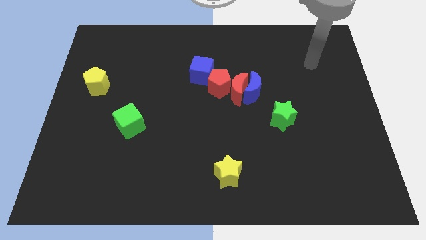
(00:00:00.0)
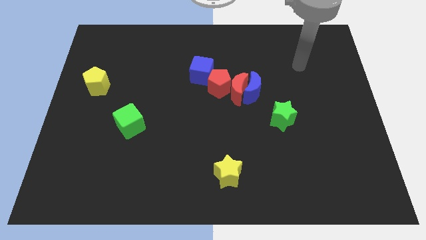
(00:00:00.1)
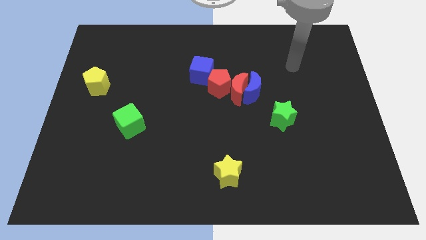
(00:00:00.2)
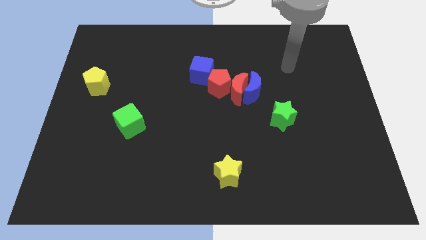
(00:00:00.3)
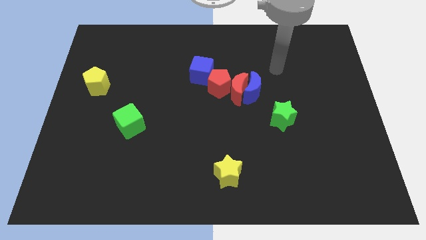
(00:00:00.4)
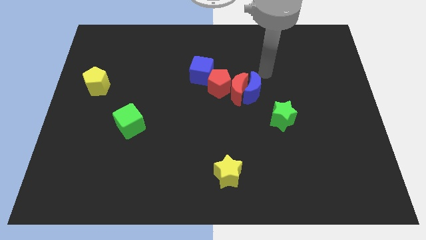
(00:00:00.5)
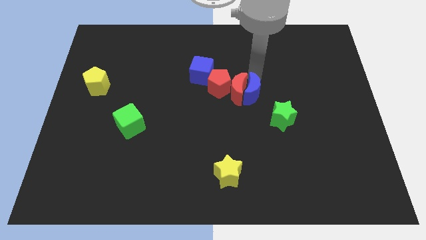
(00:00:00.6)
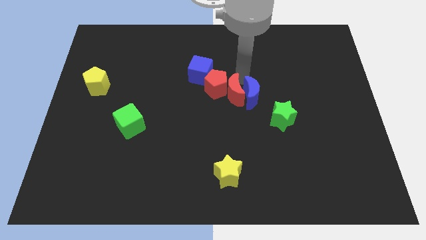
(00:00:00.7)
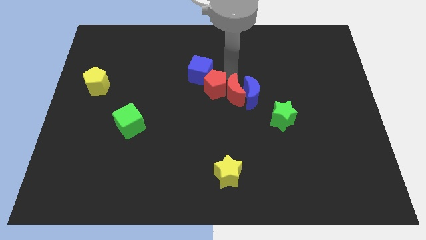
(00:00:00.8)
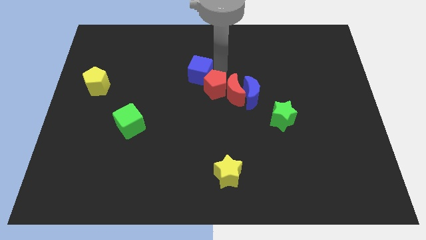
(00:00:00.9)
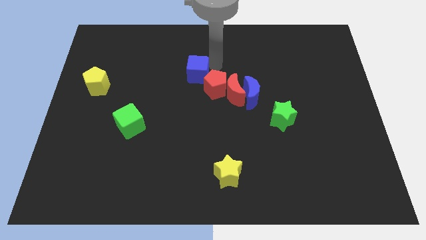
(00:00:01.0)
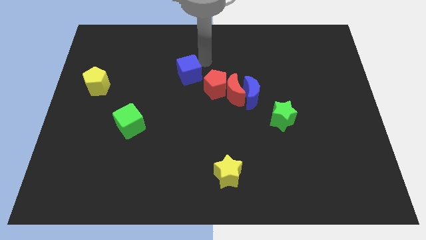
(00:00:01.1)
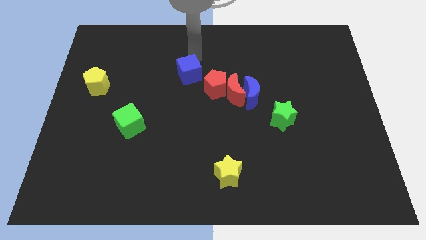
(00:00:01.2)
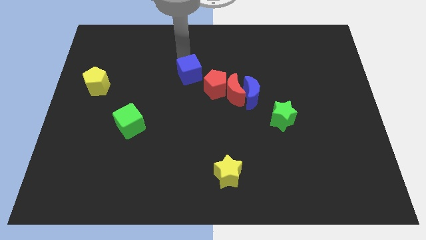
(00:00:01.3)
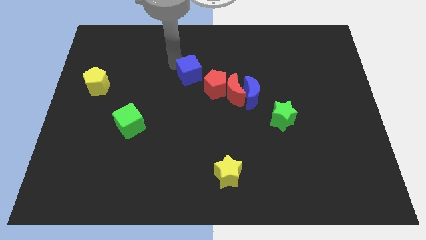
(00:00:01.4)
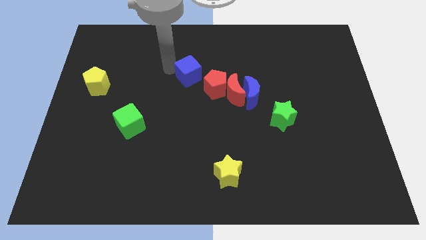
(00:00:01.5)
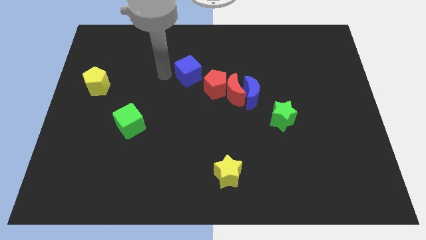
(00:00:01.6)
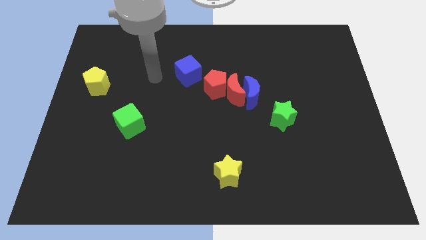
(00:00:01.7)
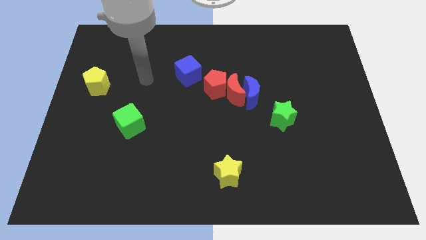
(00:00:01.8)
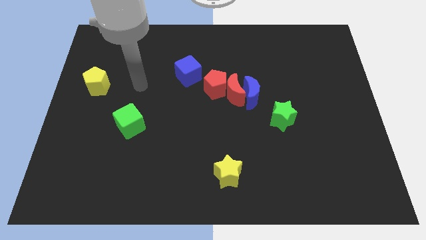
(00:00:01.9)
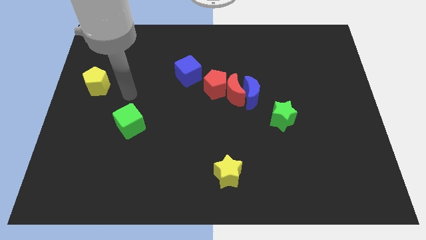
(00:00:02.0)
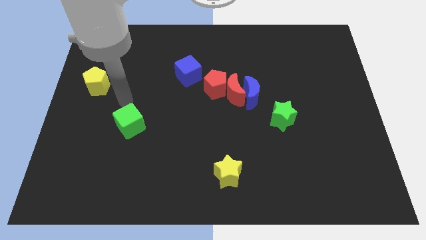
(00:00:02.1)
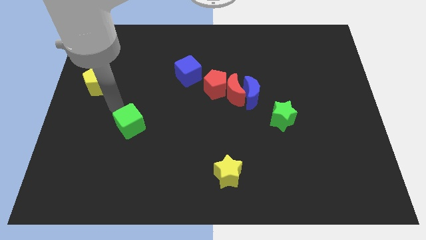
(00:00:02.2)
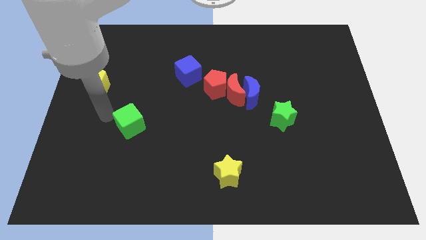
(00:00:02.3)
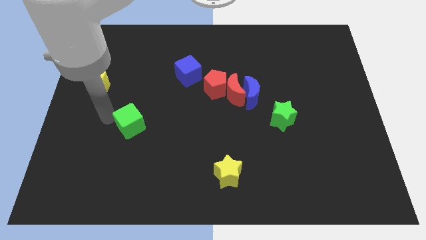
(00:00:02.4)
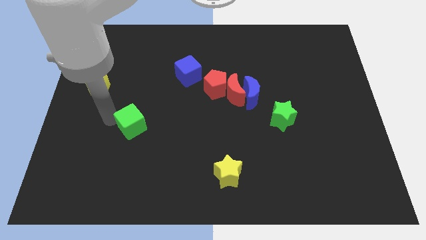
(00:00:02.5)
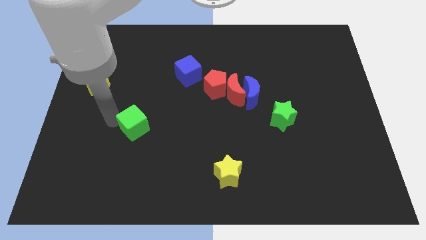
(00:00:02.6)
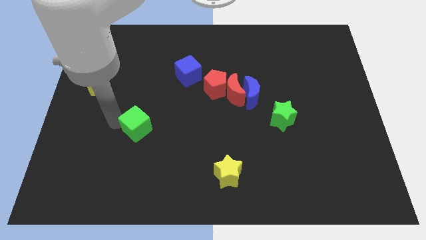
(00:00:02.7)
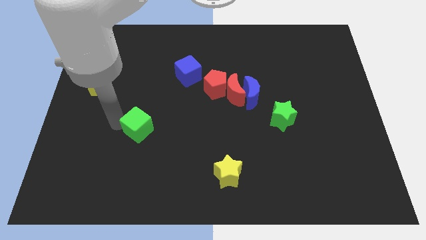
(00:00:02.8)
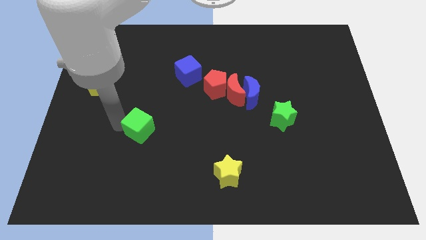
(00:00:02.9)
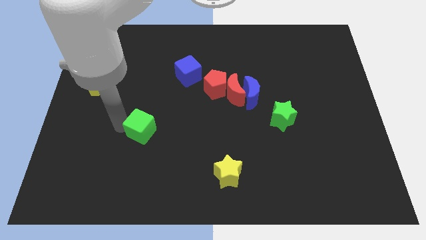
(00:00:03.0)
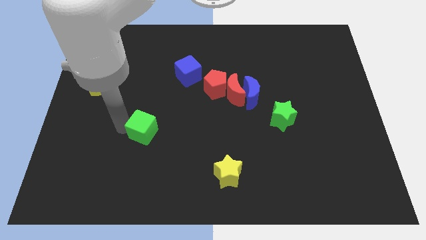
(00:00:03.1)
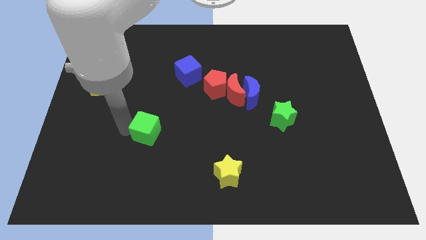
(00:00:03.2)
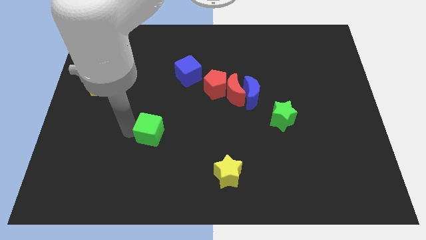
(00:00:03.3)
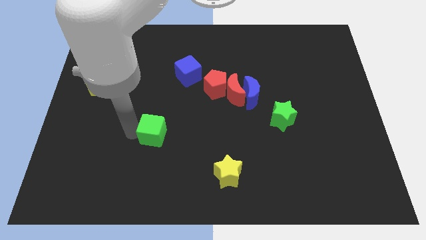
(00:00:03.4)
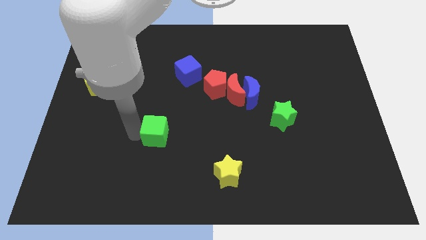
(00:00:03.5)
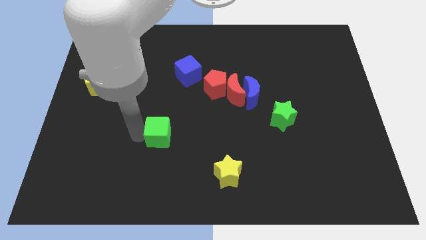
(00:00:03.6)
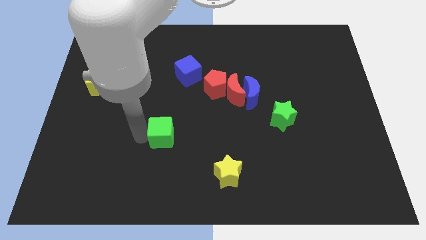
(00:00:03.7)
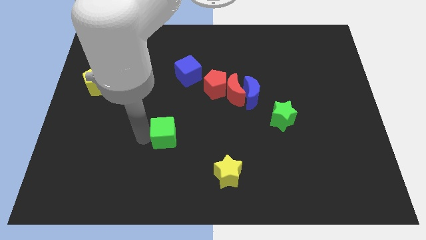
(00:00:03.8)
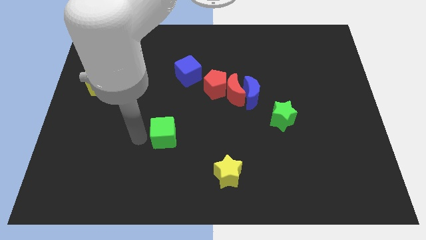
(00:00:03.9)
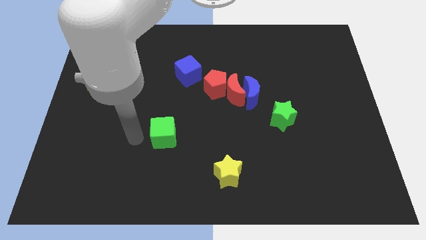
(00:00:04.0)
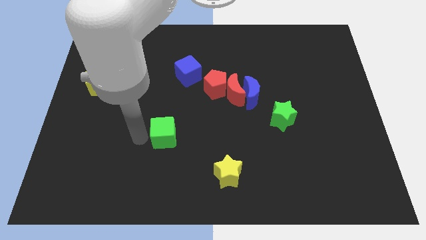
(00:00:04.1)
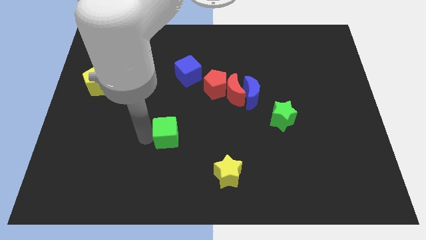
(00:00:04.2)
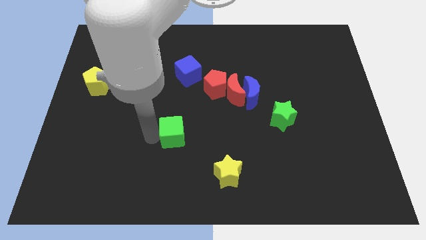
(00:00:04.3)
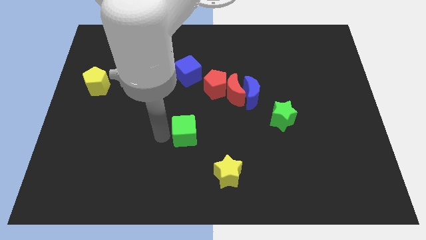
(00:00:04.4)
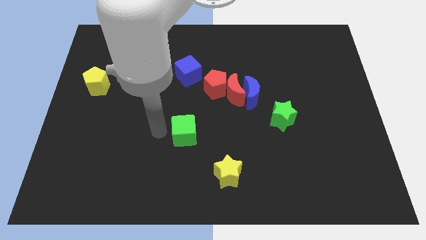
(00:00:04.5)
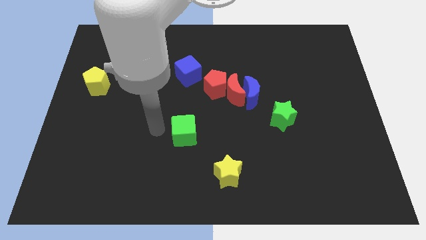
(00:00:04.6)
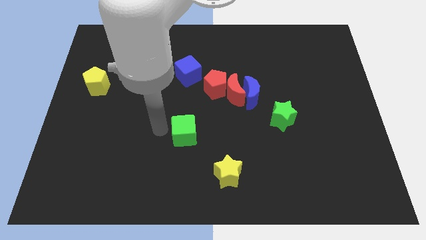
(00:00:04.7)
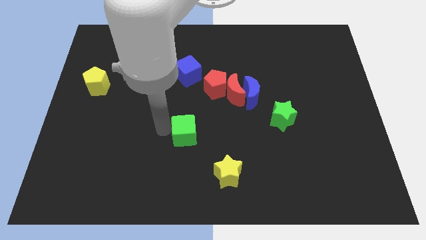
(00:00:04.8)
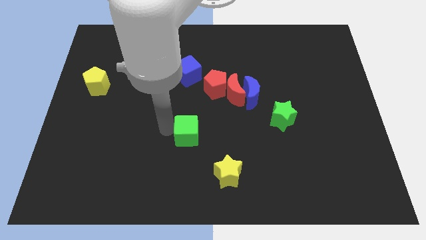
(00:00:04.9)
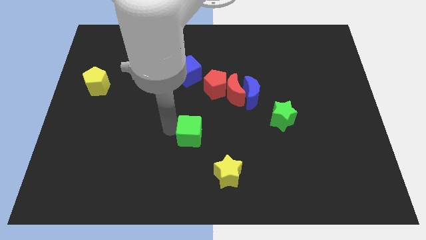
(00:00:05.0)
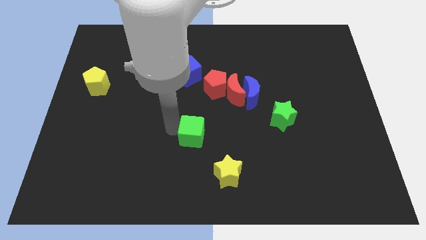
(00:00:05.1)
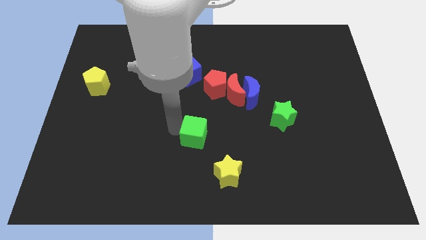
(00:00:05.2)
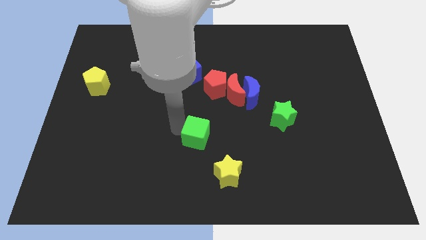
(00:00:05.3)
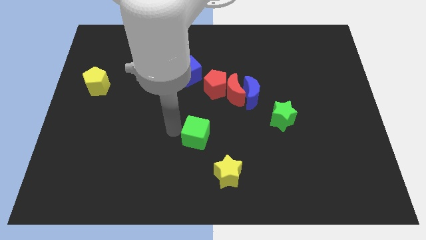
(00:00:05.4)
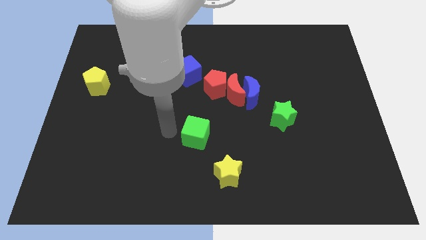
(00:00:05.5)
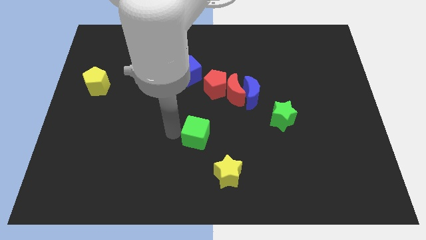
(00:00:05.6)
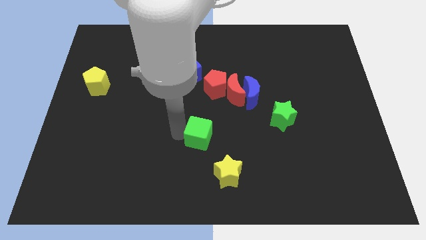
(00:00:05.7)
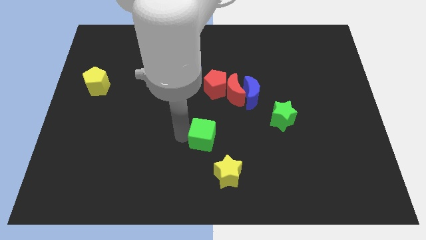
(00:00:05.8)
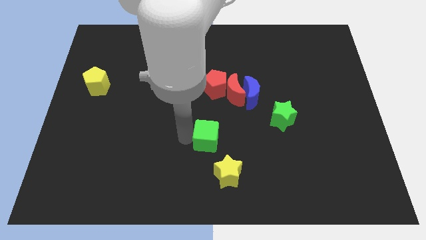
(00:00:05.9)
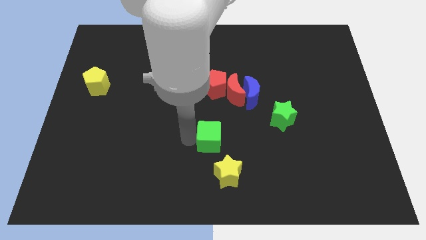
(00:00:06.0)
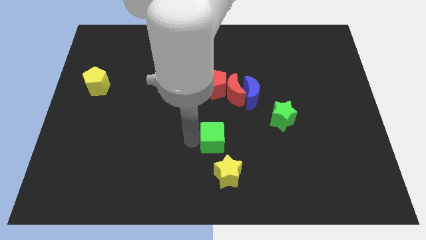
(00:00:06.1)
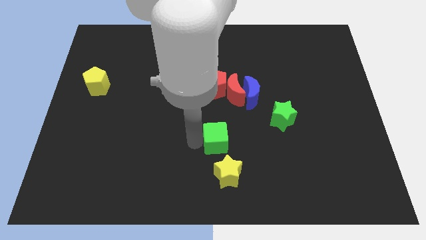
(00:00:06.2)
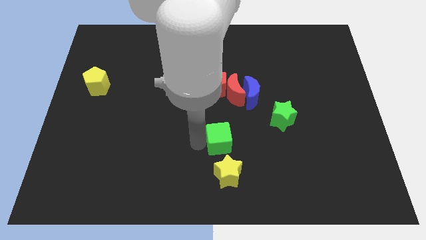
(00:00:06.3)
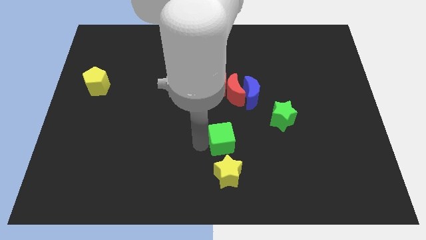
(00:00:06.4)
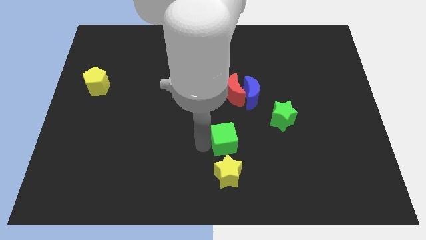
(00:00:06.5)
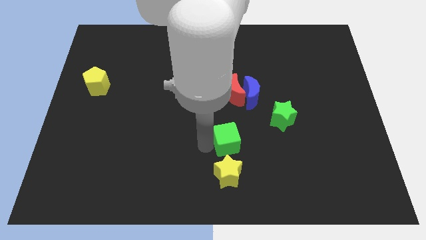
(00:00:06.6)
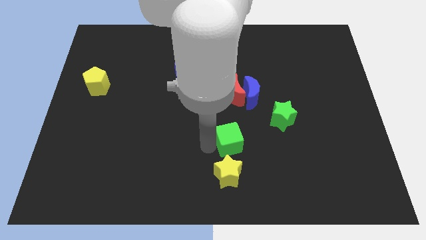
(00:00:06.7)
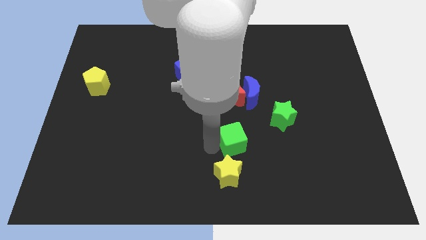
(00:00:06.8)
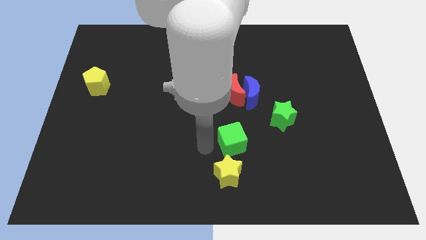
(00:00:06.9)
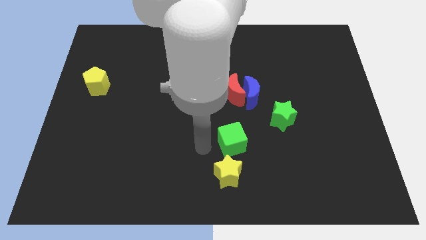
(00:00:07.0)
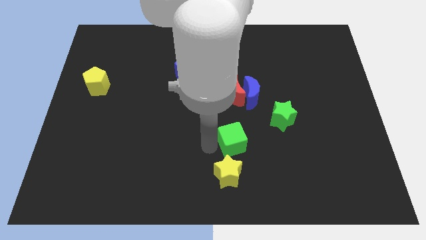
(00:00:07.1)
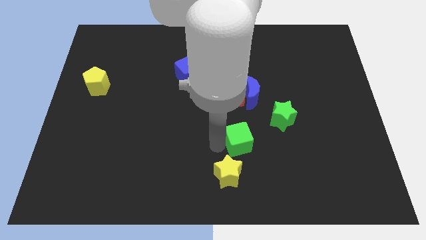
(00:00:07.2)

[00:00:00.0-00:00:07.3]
move the green cube diagonally down and to the left of the green star

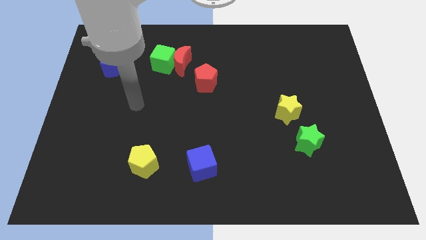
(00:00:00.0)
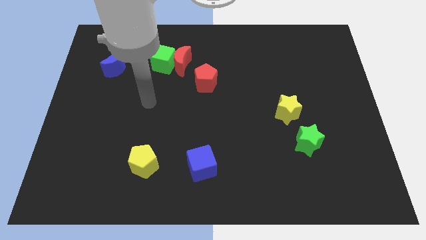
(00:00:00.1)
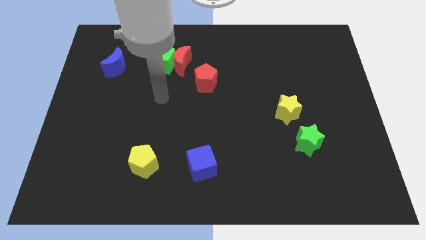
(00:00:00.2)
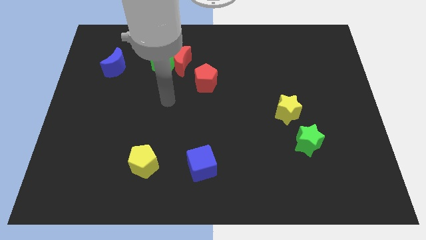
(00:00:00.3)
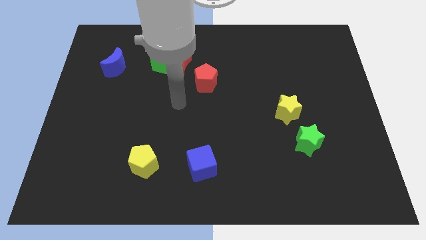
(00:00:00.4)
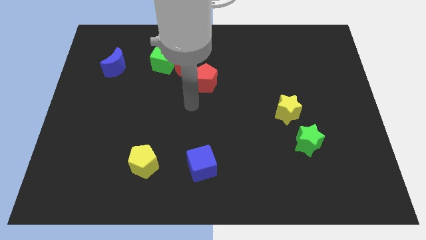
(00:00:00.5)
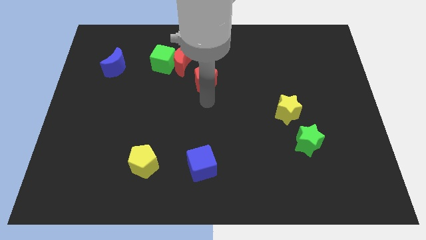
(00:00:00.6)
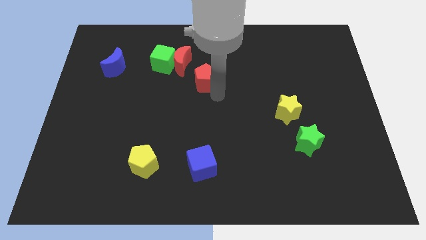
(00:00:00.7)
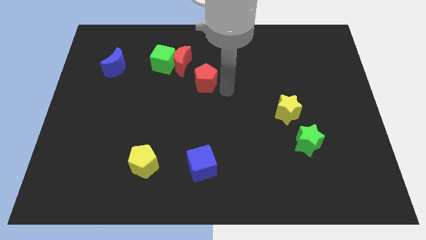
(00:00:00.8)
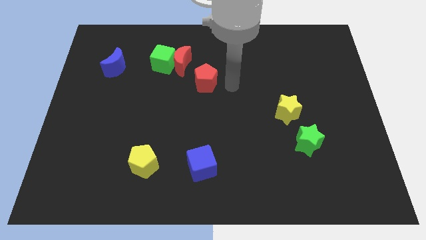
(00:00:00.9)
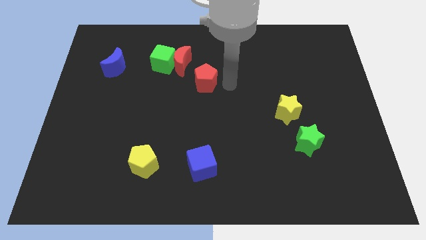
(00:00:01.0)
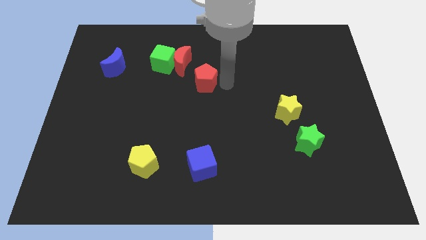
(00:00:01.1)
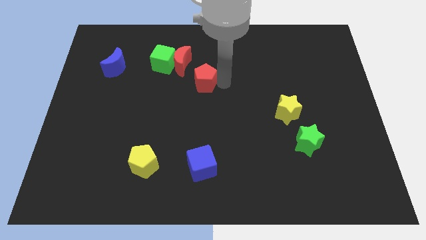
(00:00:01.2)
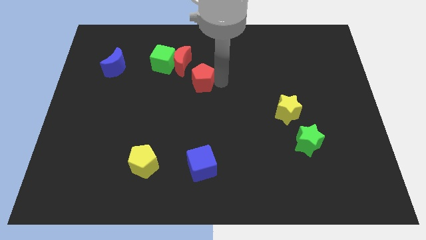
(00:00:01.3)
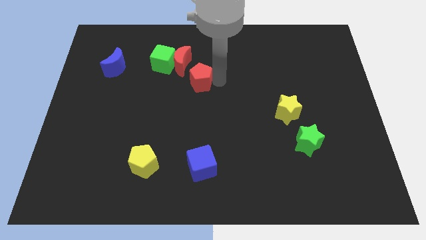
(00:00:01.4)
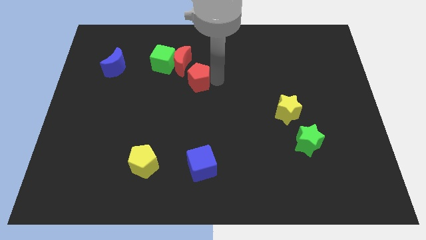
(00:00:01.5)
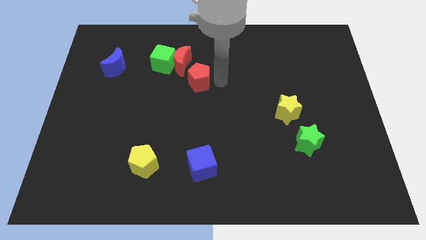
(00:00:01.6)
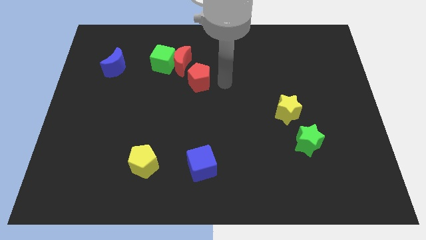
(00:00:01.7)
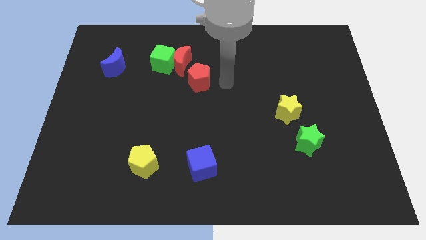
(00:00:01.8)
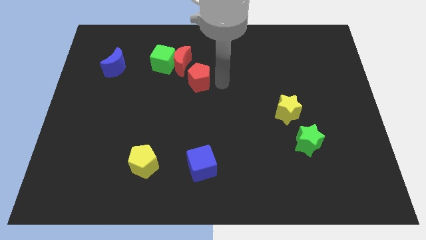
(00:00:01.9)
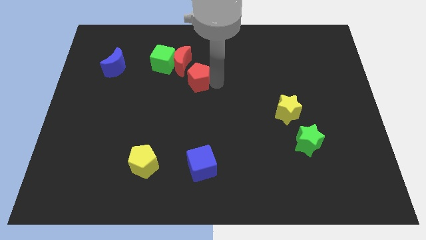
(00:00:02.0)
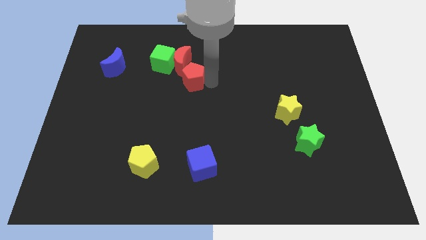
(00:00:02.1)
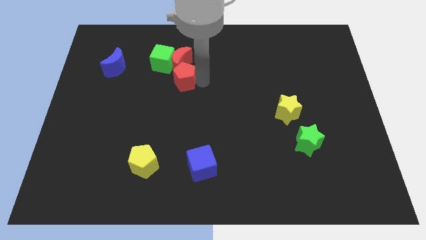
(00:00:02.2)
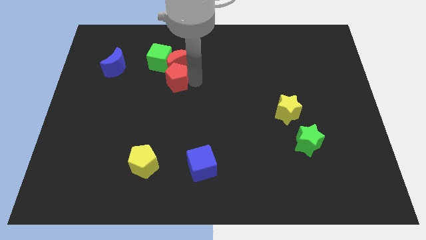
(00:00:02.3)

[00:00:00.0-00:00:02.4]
push the red pentagon to the bottom left of the red moon
